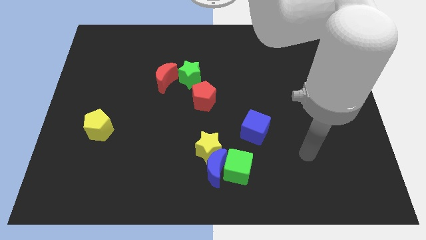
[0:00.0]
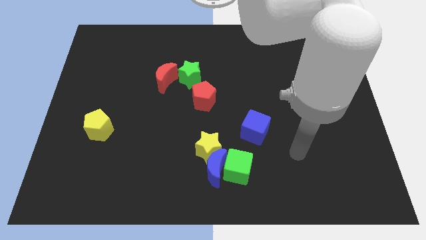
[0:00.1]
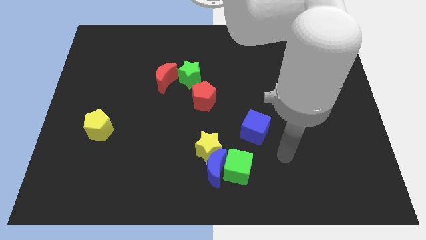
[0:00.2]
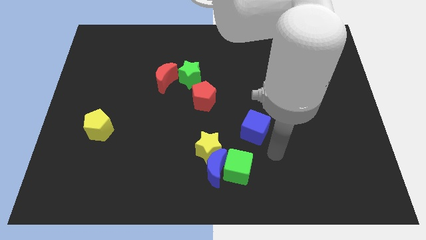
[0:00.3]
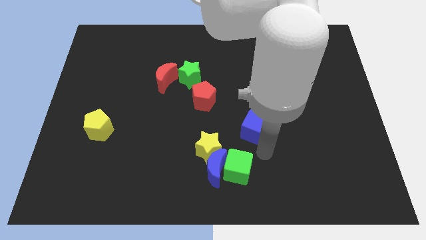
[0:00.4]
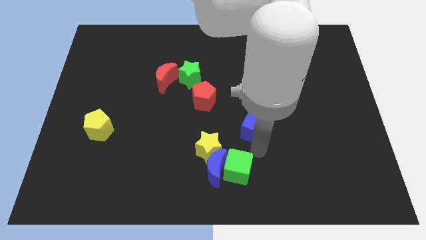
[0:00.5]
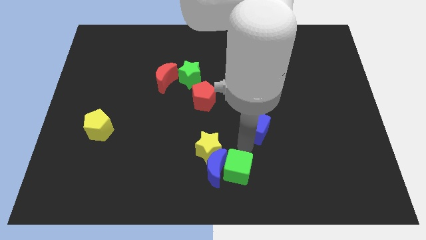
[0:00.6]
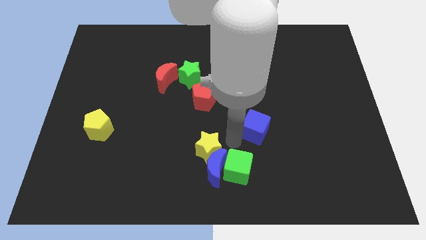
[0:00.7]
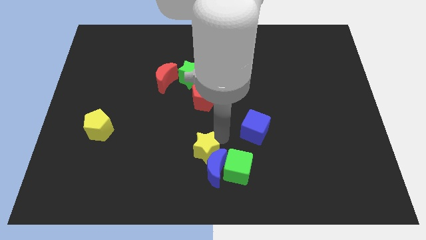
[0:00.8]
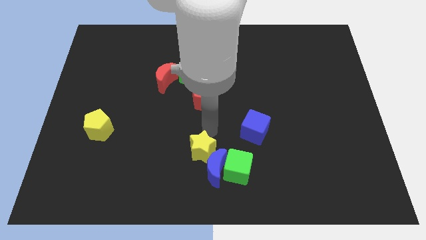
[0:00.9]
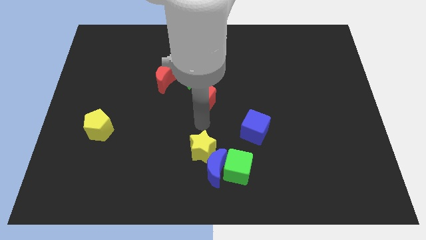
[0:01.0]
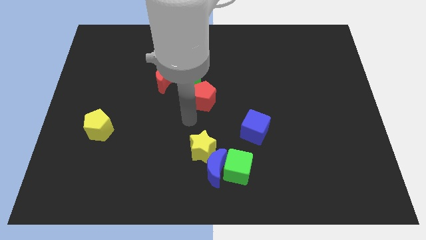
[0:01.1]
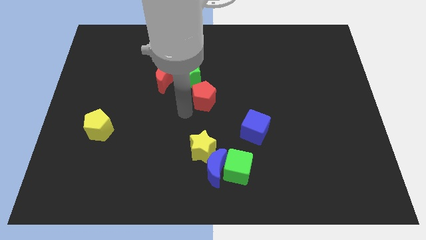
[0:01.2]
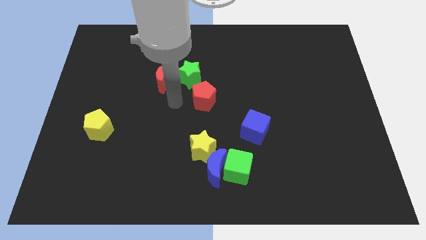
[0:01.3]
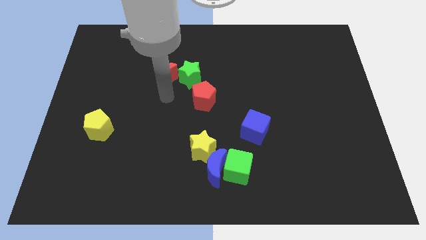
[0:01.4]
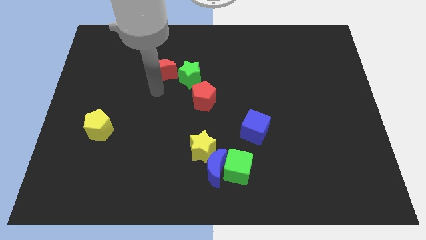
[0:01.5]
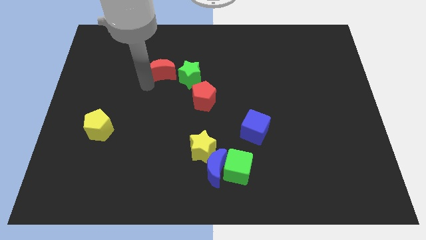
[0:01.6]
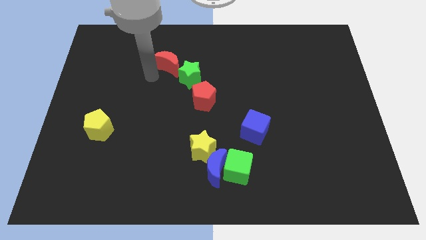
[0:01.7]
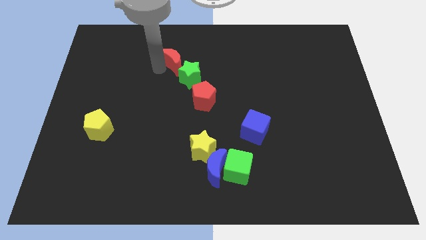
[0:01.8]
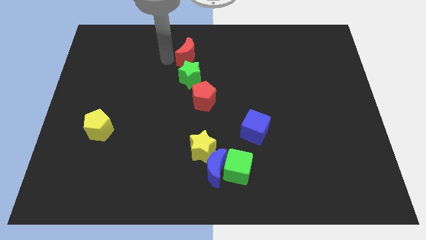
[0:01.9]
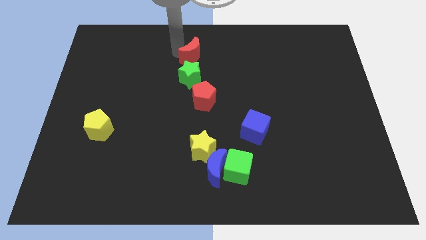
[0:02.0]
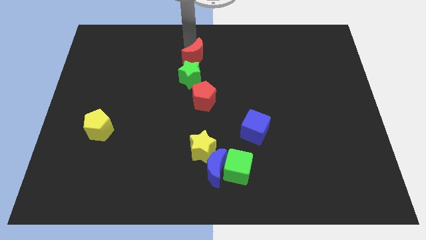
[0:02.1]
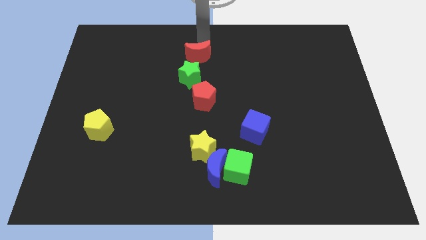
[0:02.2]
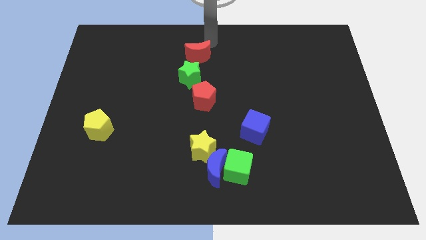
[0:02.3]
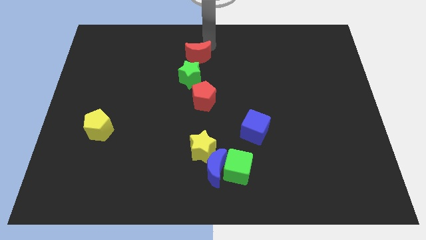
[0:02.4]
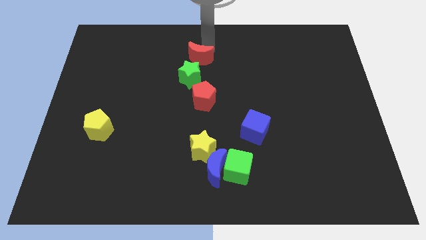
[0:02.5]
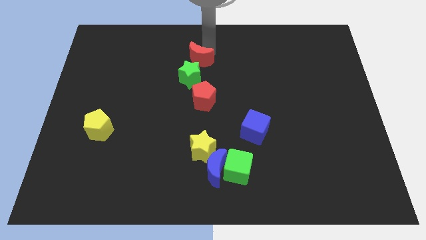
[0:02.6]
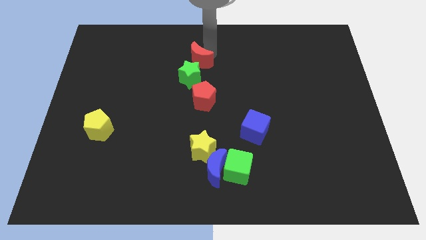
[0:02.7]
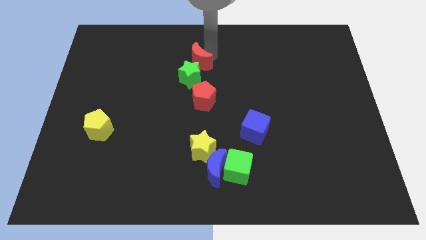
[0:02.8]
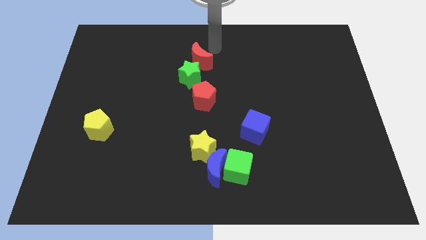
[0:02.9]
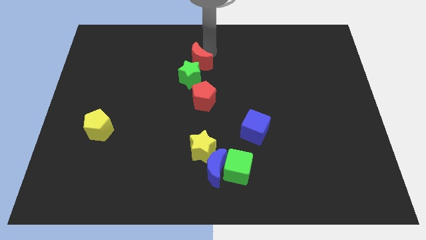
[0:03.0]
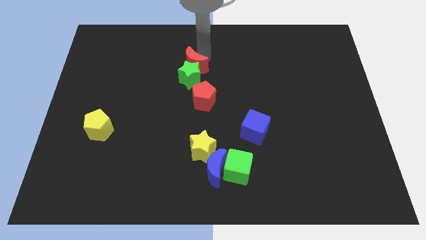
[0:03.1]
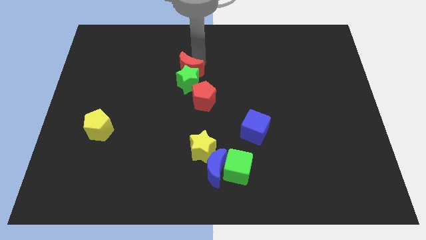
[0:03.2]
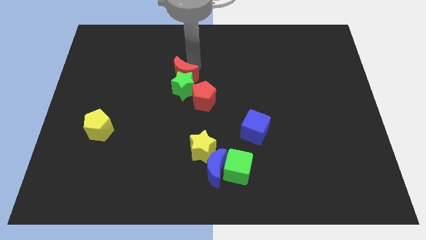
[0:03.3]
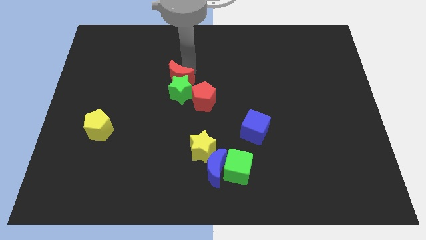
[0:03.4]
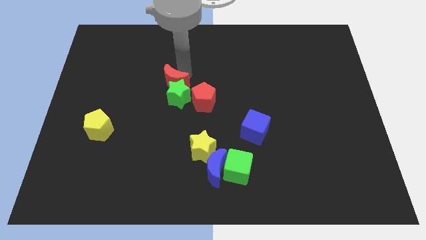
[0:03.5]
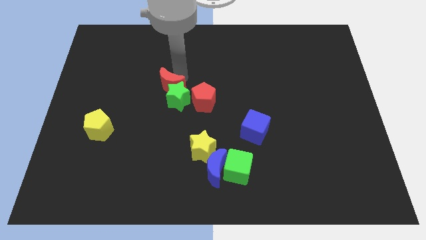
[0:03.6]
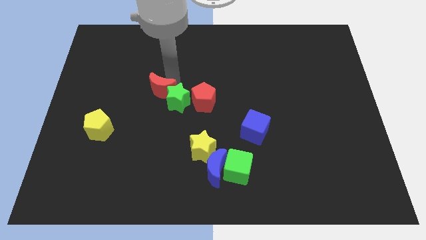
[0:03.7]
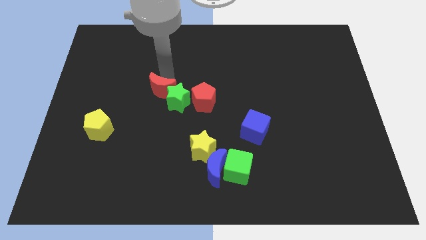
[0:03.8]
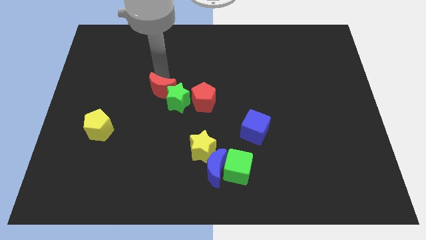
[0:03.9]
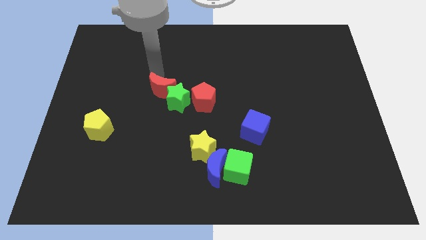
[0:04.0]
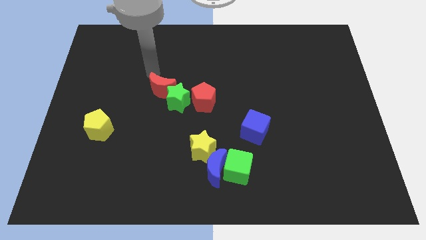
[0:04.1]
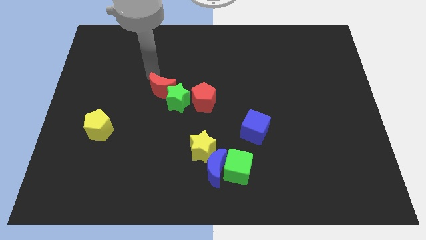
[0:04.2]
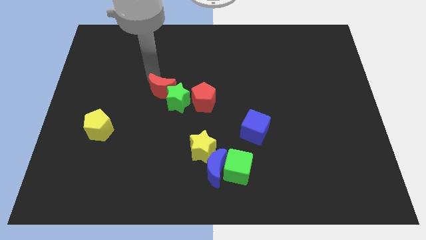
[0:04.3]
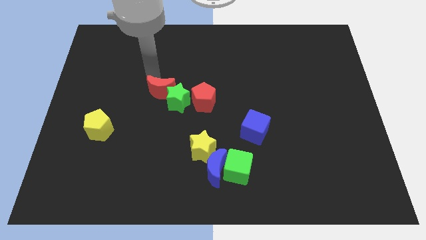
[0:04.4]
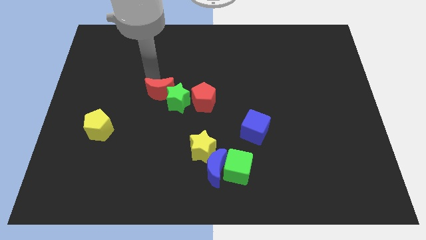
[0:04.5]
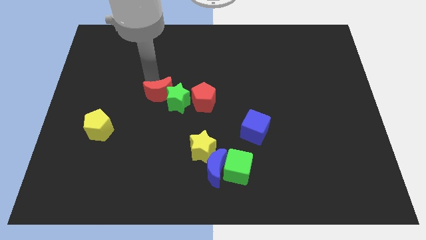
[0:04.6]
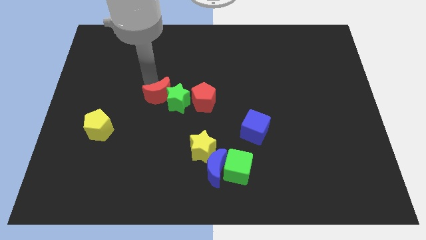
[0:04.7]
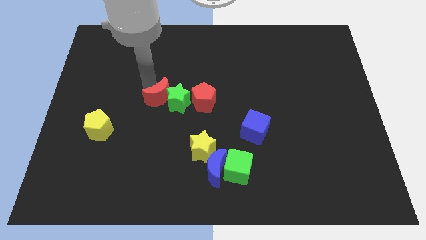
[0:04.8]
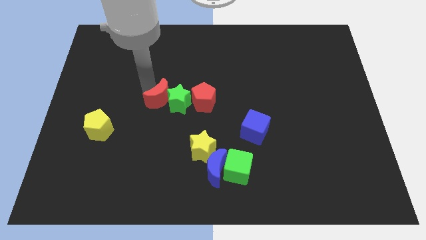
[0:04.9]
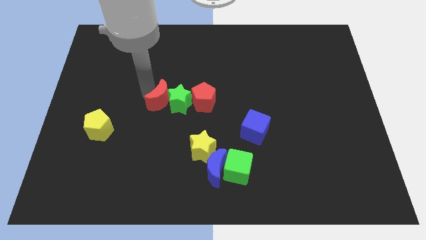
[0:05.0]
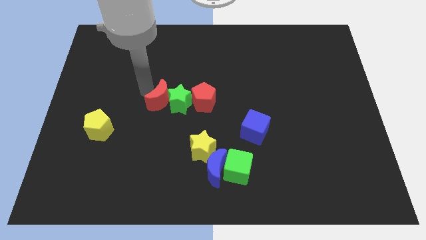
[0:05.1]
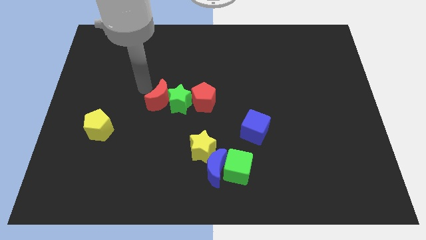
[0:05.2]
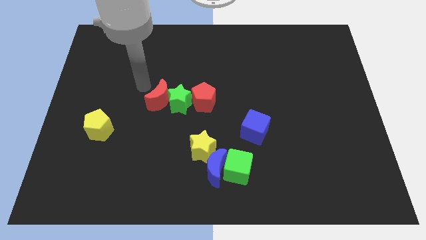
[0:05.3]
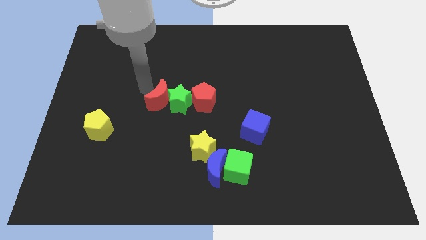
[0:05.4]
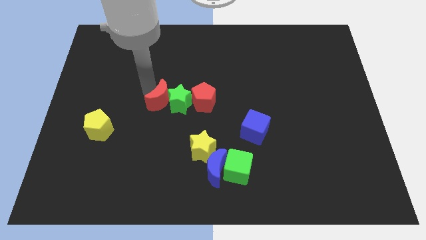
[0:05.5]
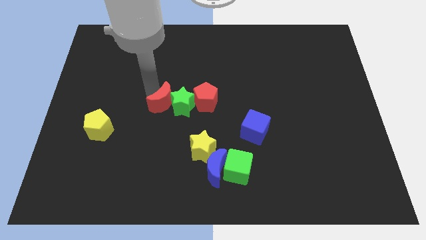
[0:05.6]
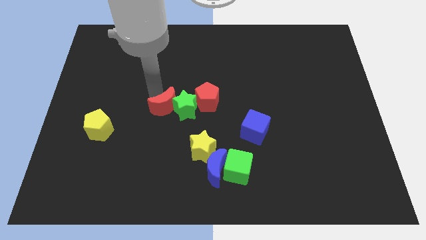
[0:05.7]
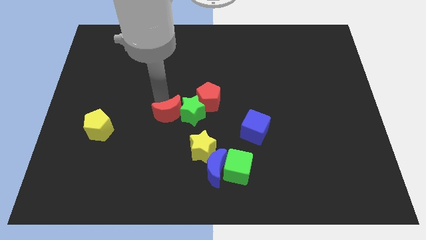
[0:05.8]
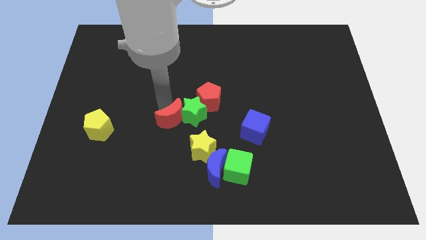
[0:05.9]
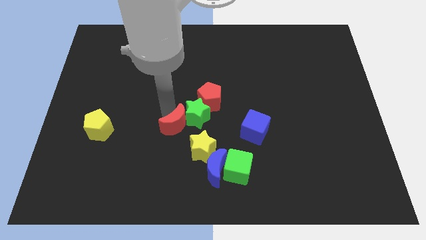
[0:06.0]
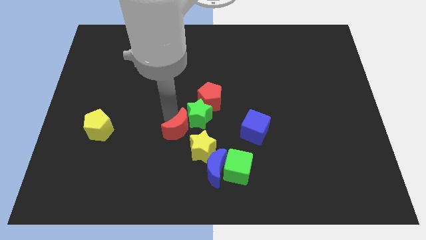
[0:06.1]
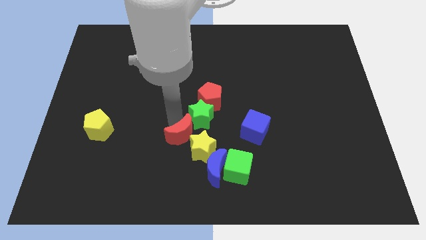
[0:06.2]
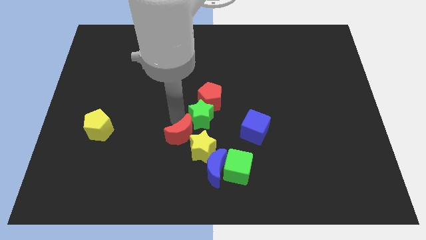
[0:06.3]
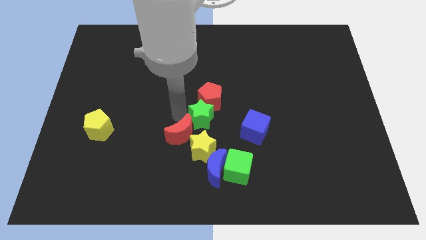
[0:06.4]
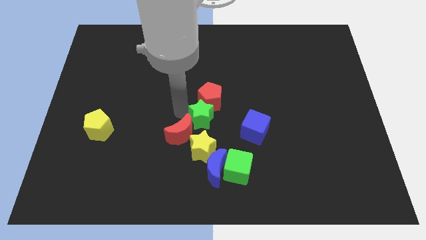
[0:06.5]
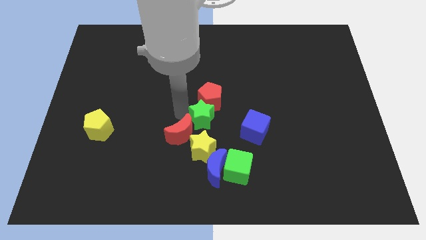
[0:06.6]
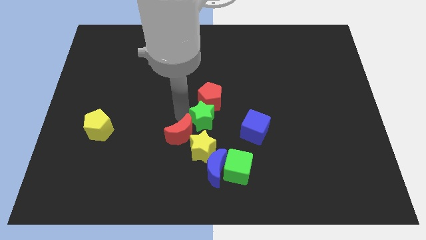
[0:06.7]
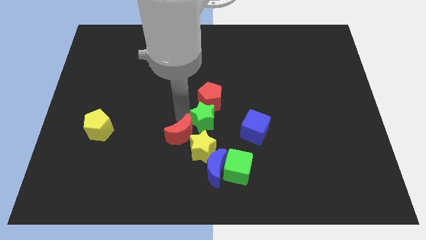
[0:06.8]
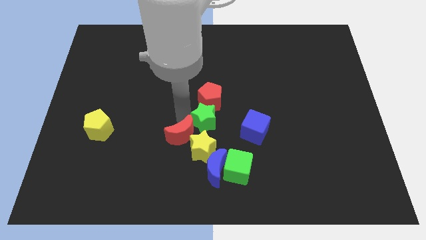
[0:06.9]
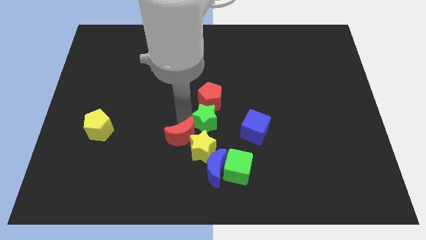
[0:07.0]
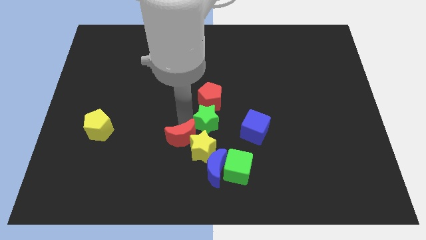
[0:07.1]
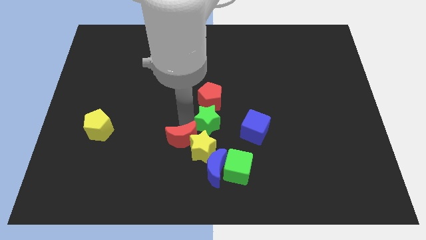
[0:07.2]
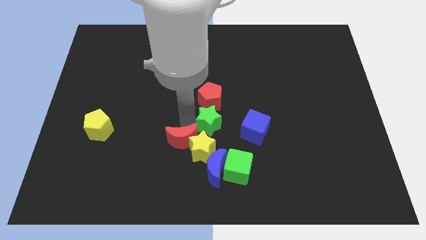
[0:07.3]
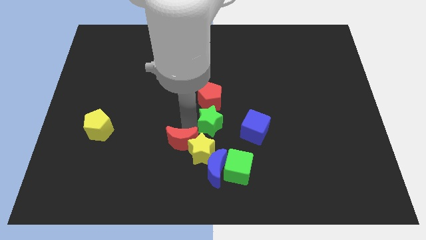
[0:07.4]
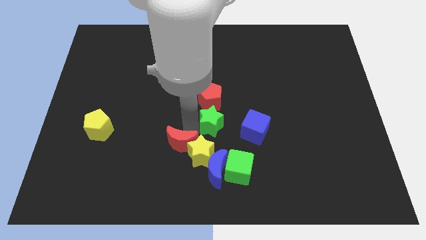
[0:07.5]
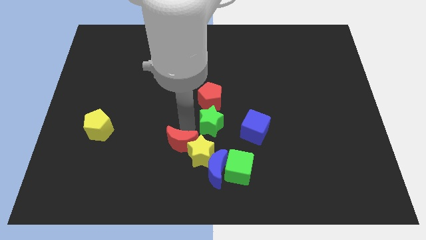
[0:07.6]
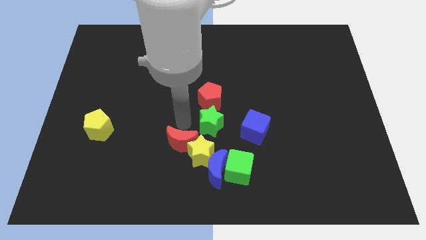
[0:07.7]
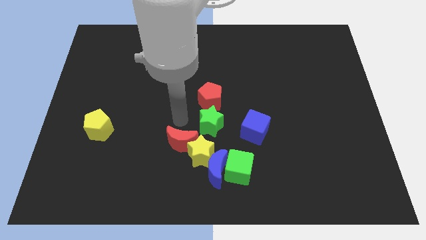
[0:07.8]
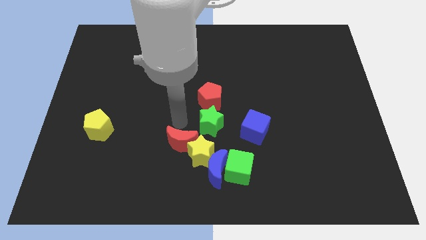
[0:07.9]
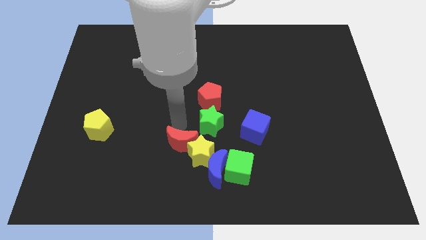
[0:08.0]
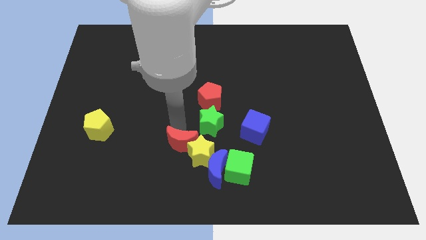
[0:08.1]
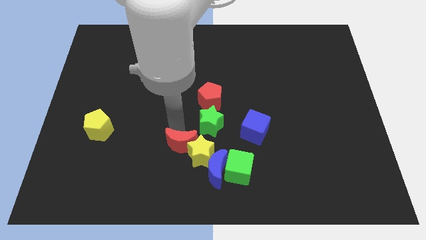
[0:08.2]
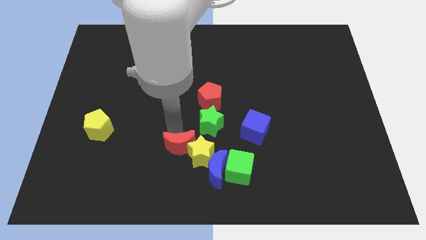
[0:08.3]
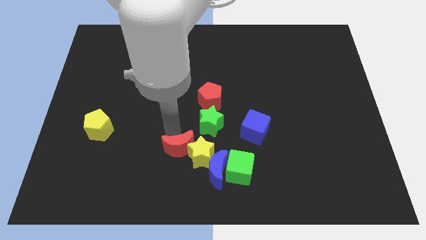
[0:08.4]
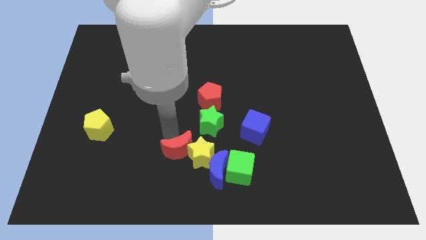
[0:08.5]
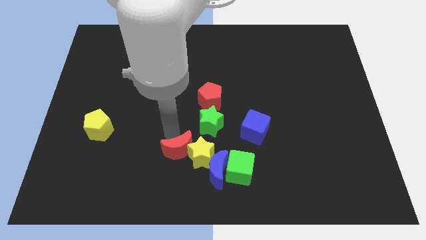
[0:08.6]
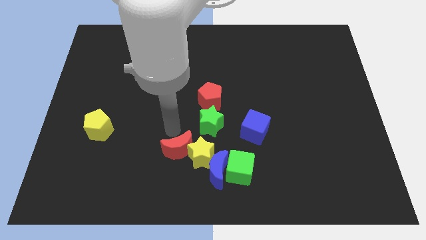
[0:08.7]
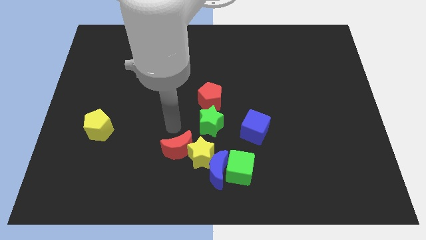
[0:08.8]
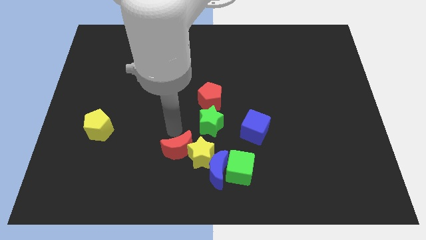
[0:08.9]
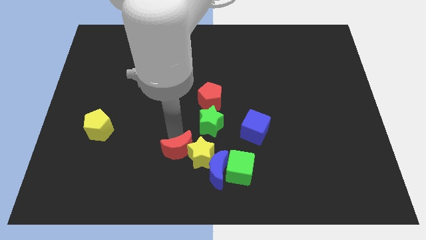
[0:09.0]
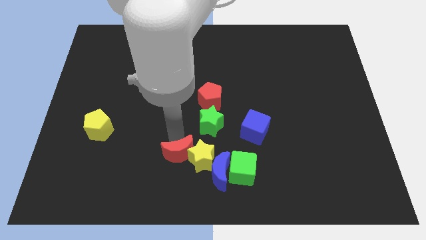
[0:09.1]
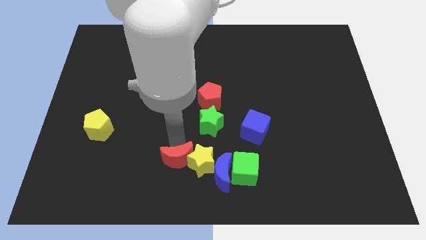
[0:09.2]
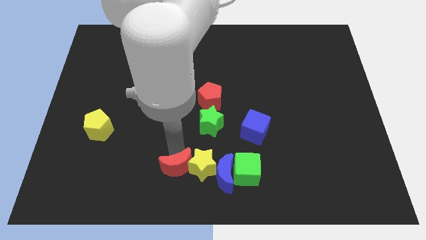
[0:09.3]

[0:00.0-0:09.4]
slide the red moon to the bottom side
